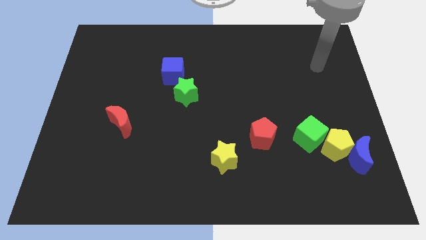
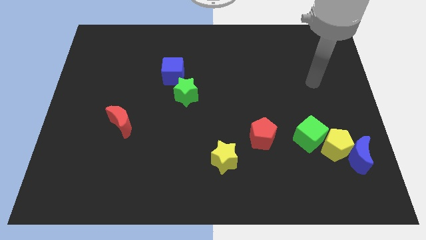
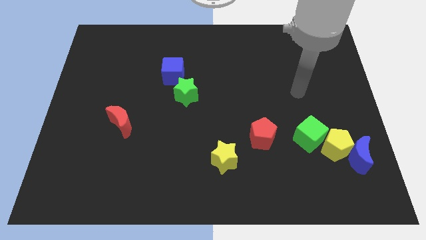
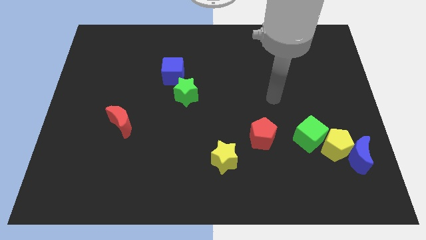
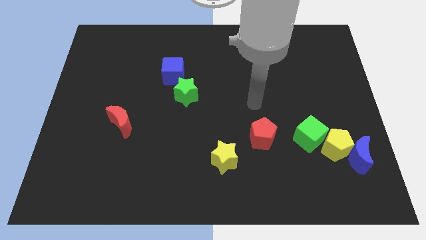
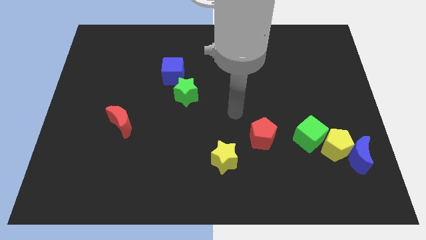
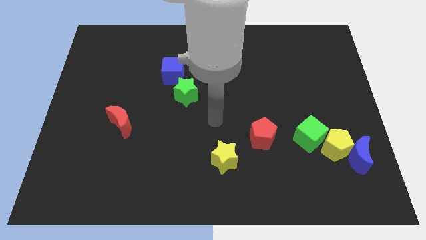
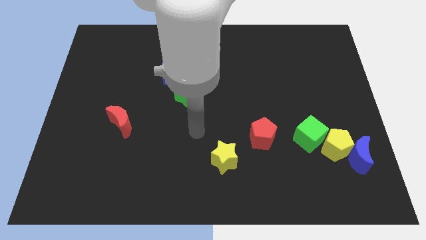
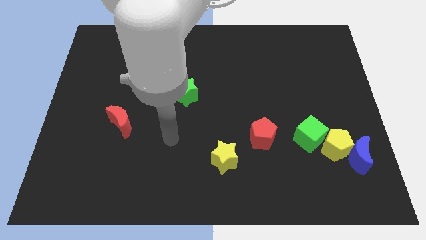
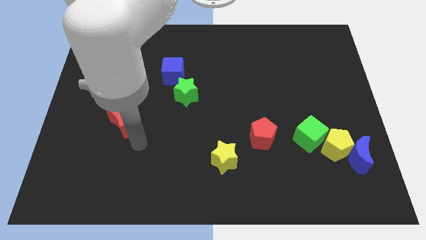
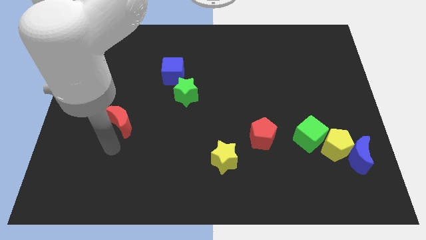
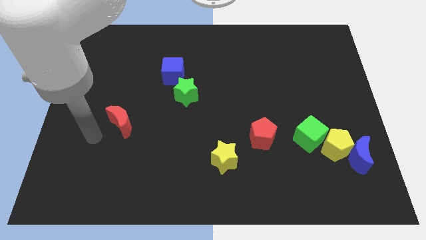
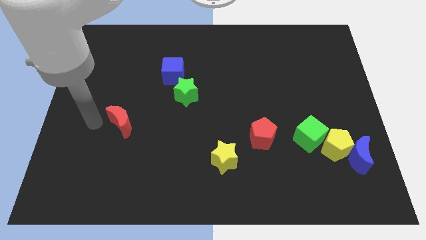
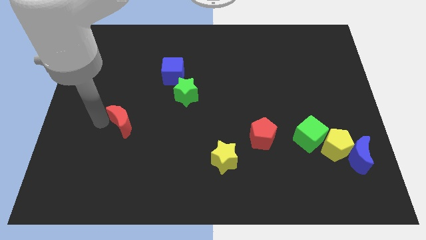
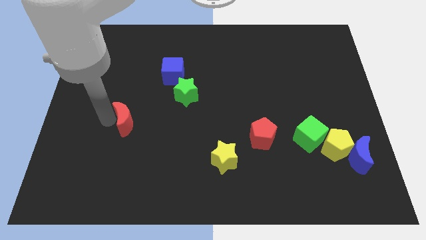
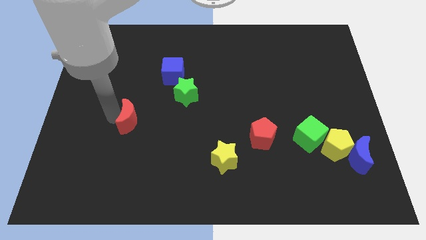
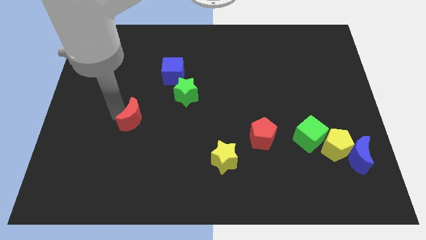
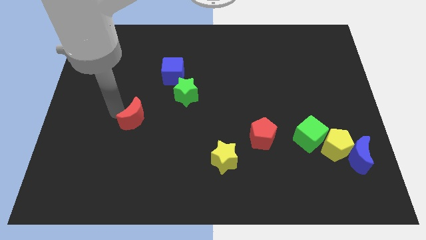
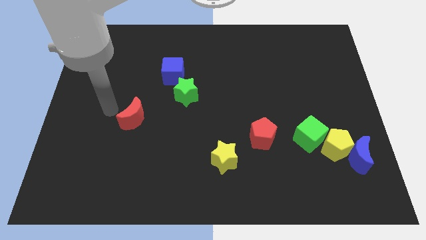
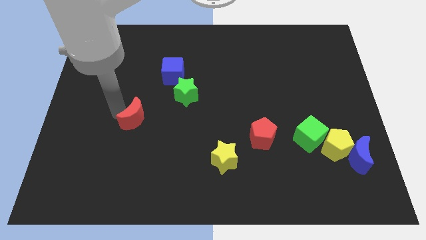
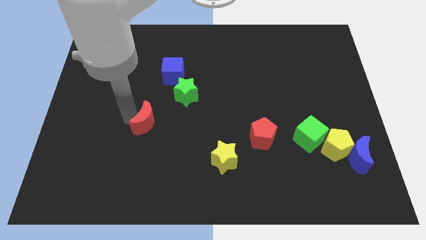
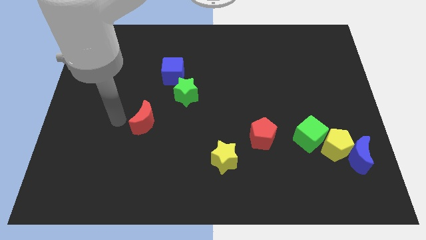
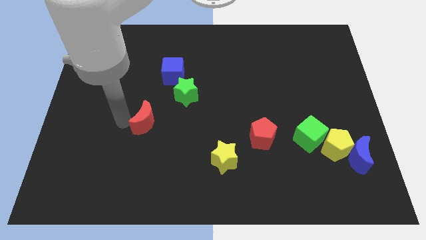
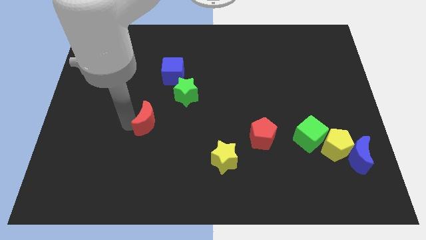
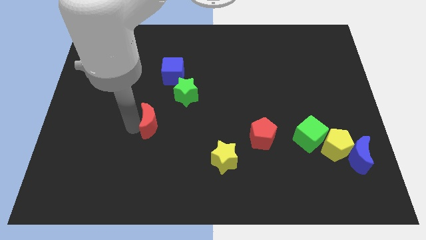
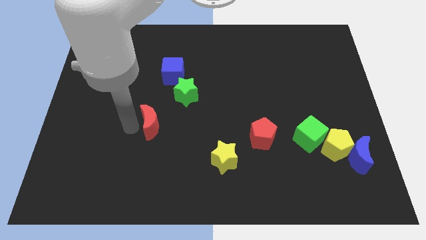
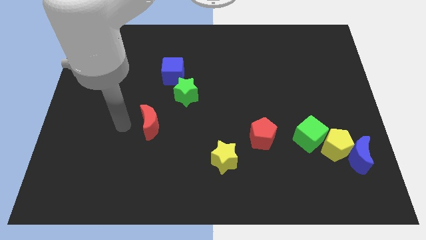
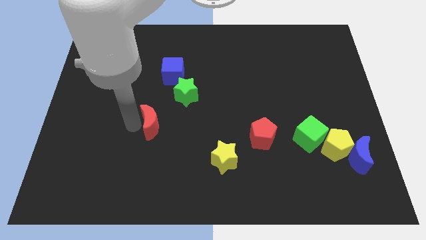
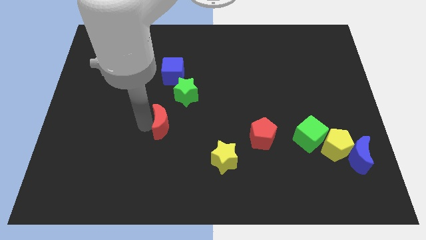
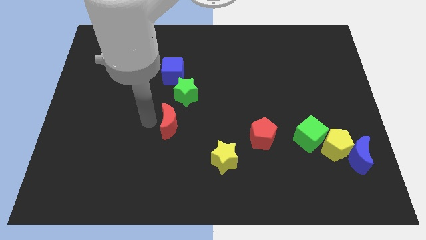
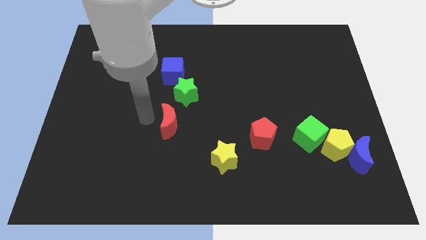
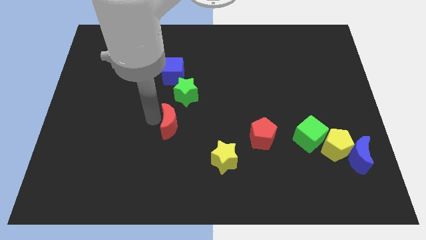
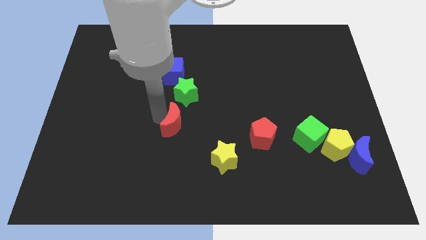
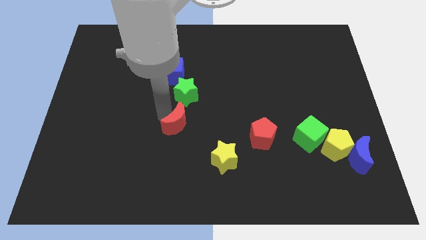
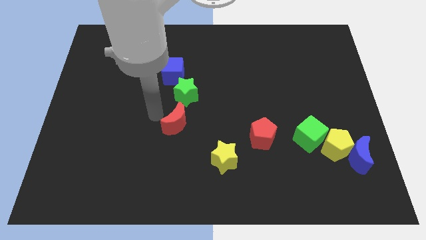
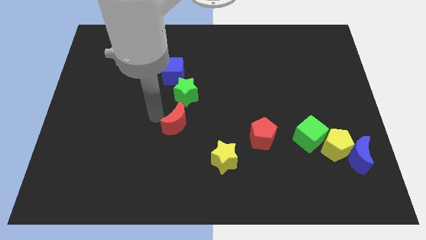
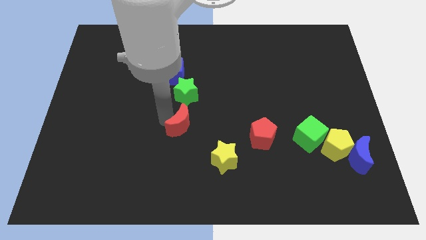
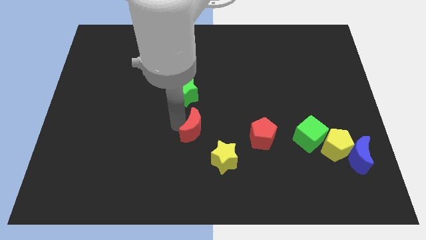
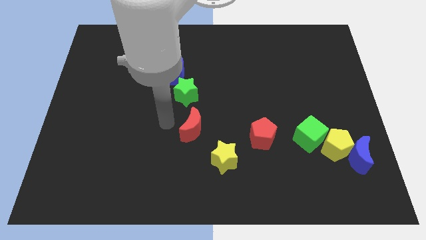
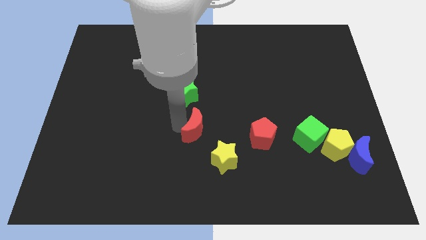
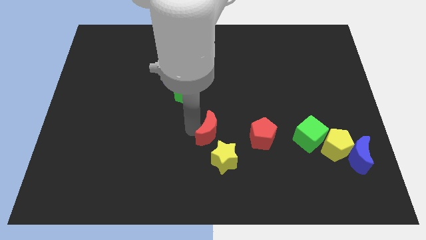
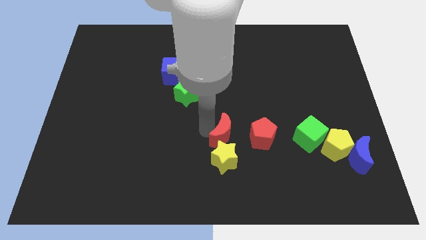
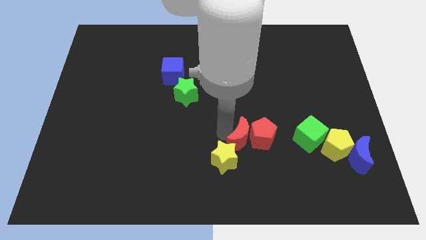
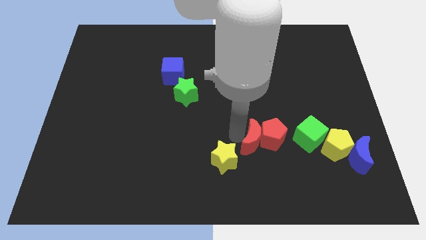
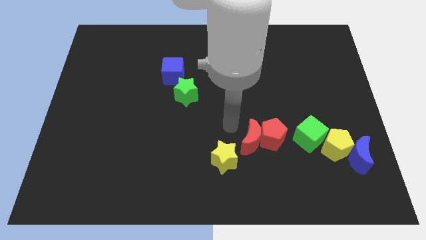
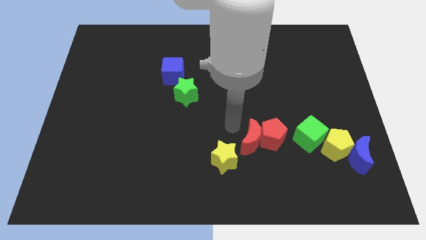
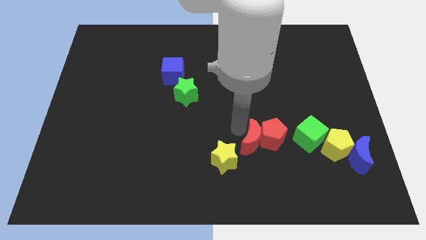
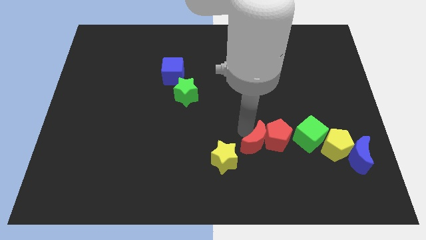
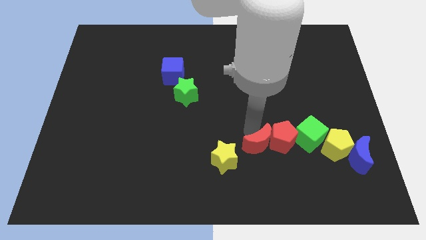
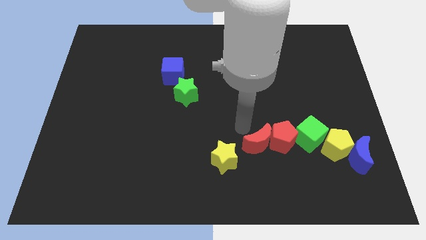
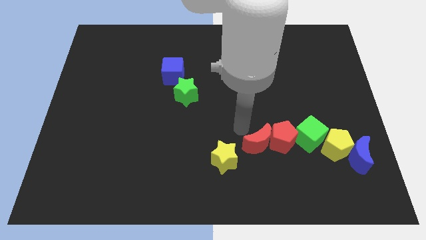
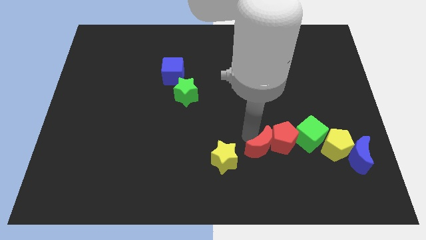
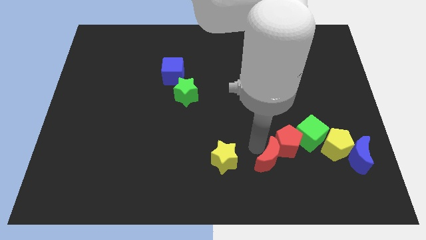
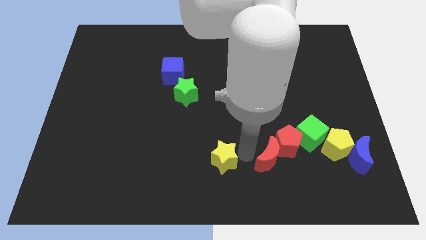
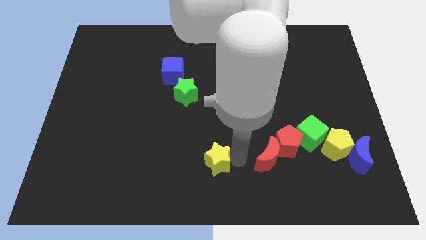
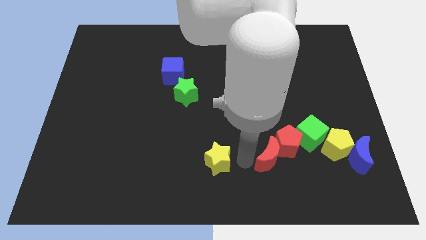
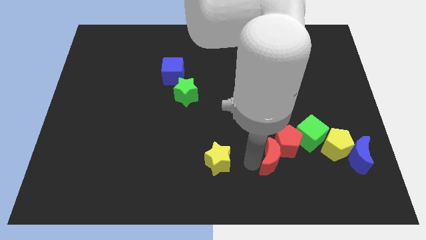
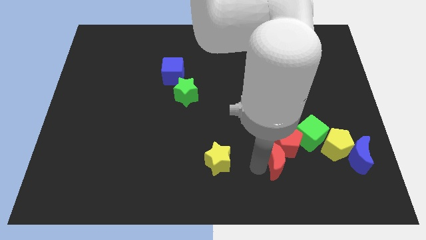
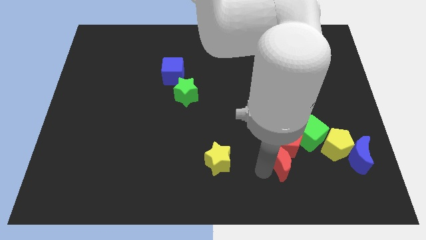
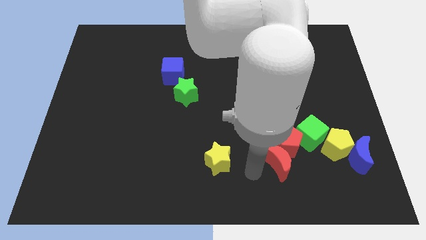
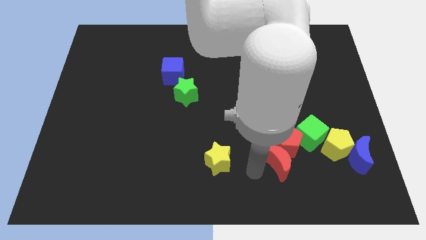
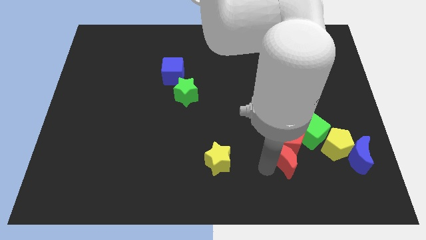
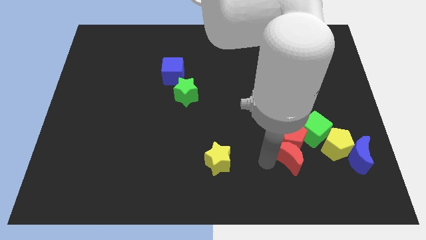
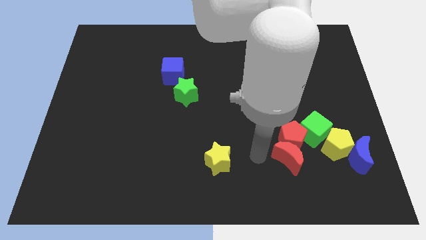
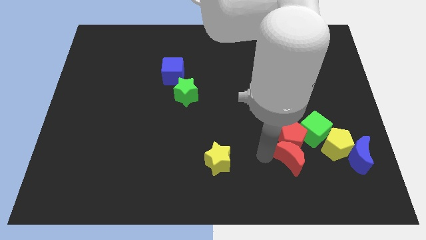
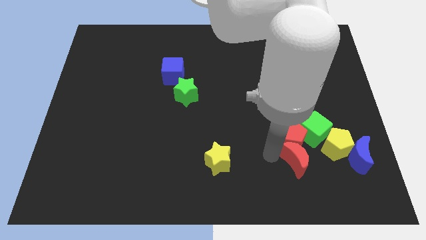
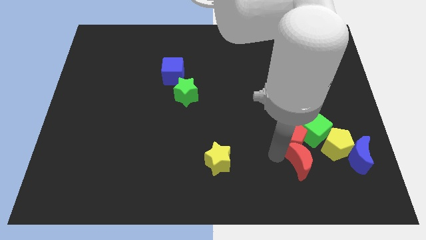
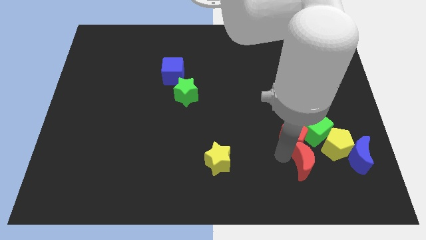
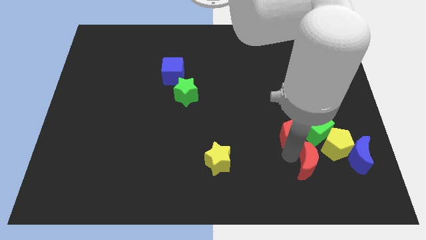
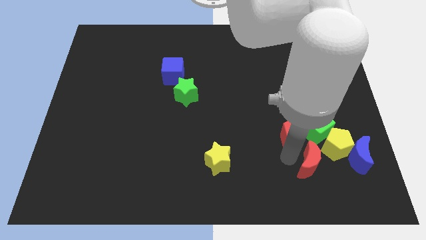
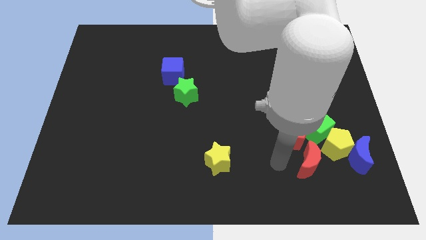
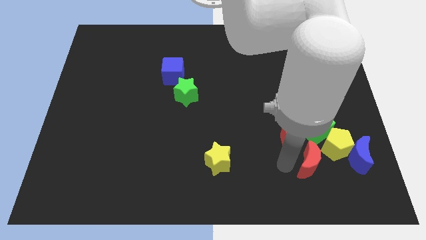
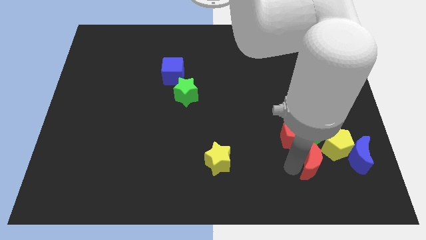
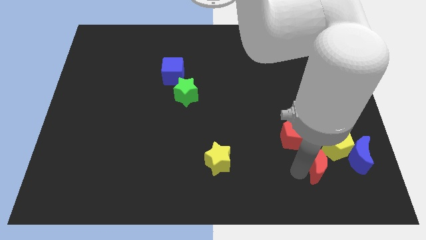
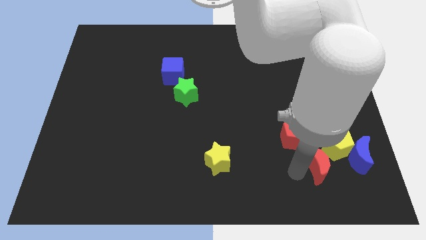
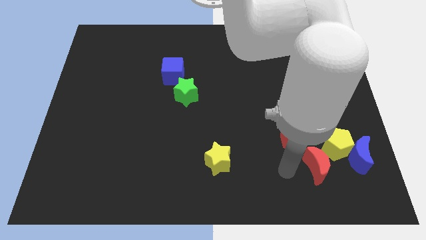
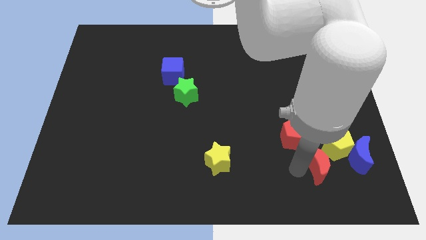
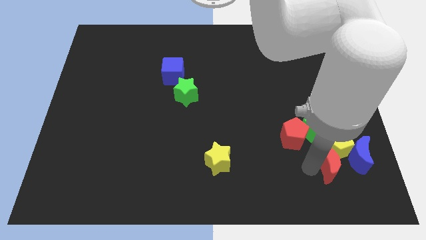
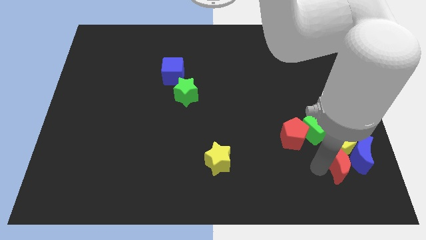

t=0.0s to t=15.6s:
slide the red moon to the blue moon
